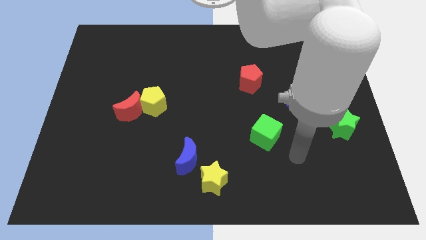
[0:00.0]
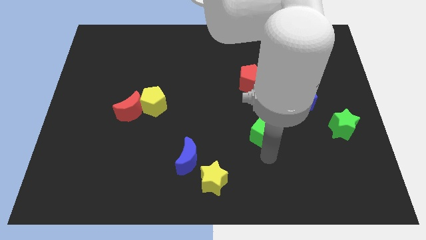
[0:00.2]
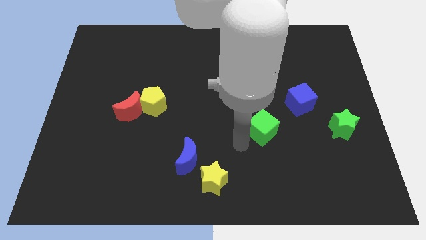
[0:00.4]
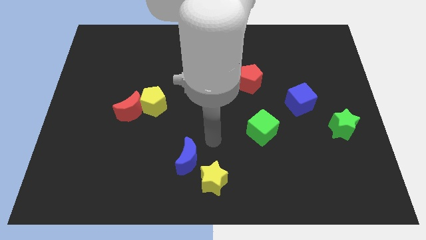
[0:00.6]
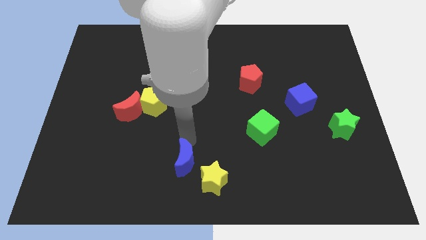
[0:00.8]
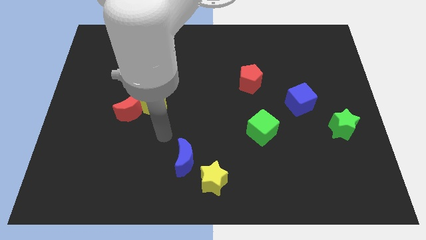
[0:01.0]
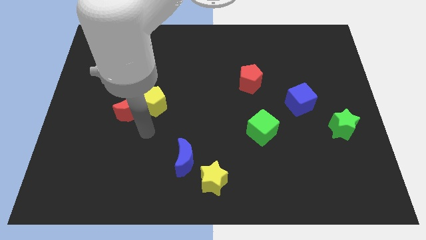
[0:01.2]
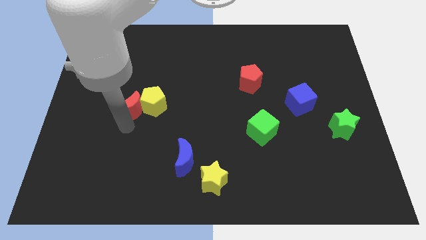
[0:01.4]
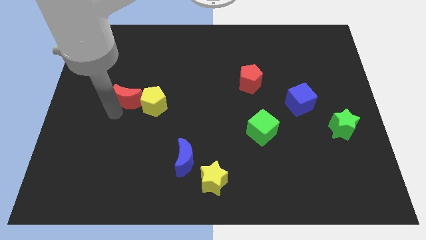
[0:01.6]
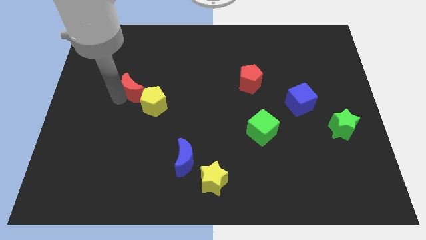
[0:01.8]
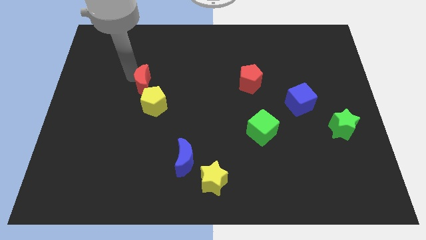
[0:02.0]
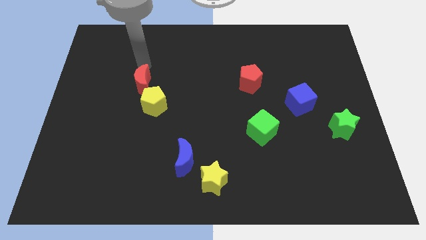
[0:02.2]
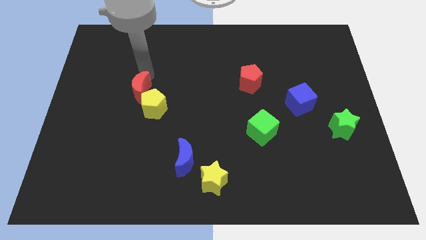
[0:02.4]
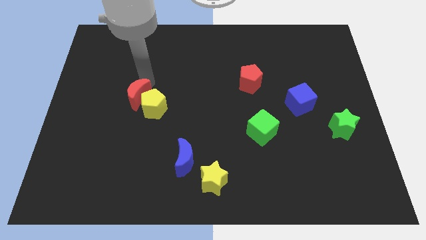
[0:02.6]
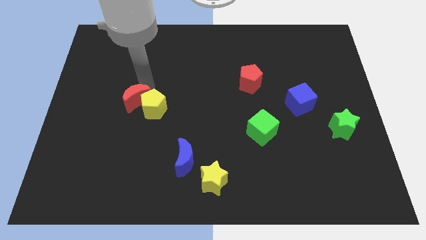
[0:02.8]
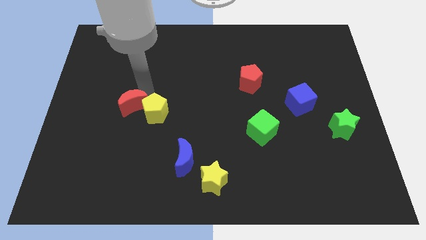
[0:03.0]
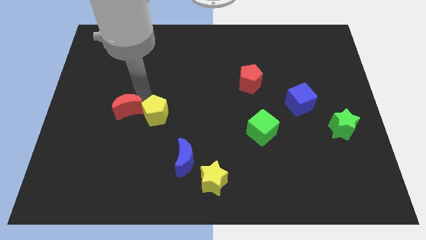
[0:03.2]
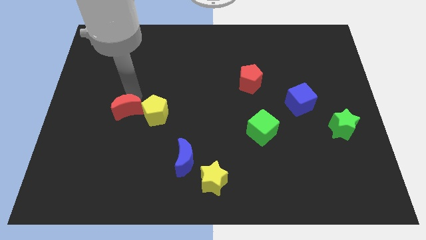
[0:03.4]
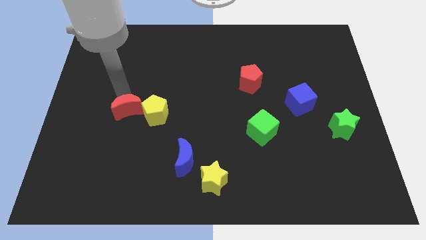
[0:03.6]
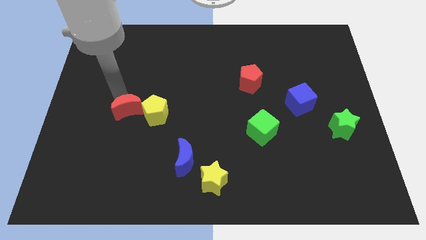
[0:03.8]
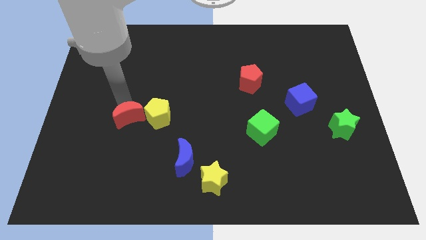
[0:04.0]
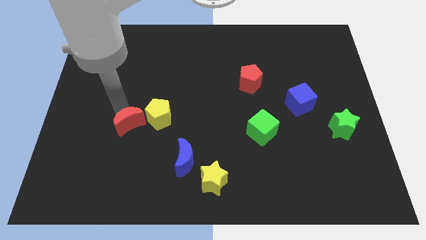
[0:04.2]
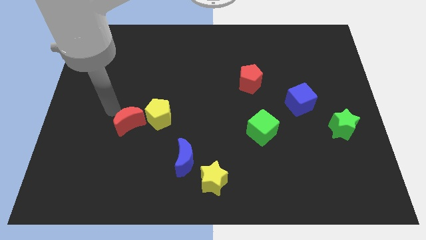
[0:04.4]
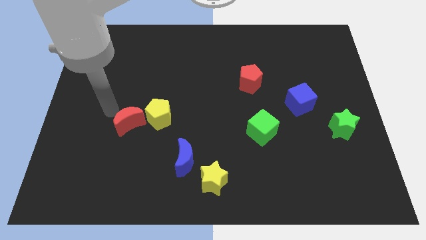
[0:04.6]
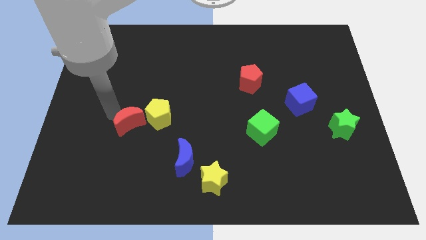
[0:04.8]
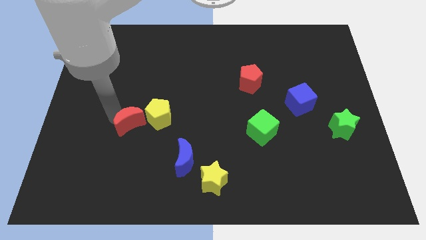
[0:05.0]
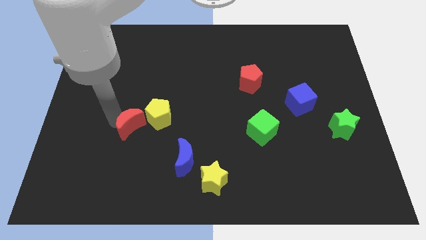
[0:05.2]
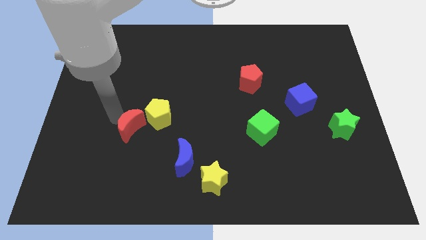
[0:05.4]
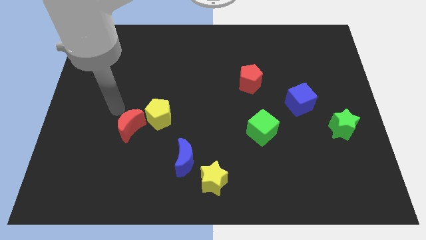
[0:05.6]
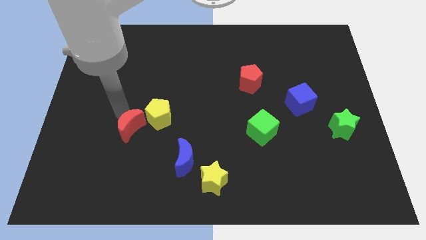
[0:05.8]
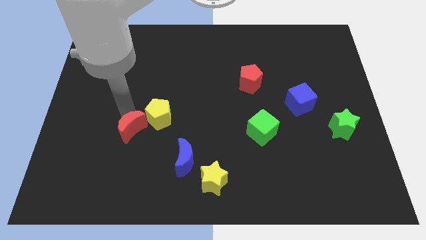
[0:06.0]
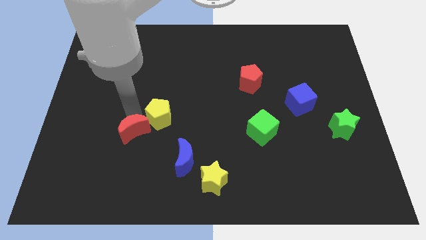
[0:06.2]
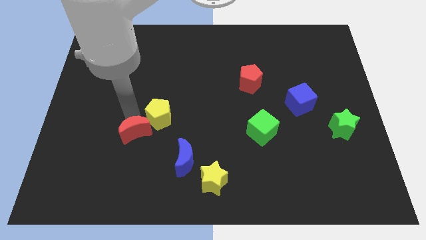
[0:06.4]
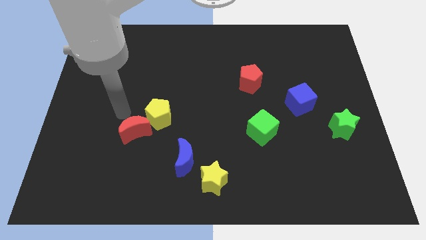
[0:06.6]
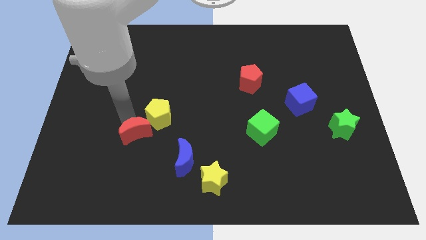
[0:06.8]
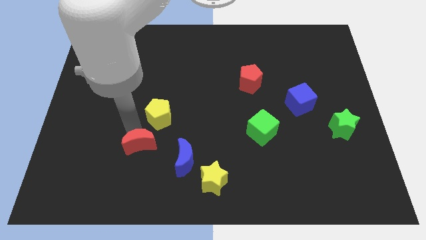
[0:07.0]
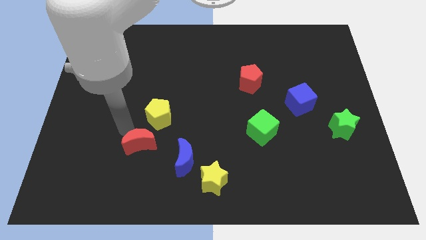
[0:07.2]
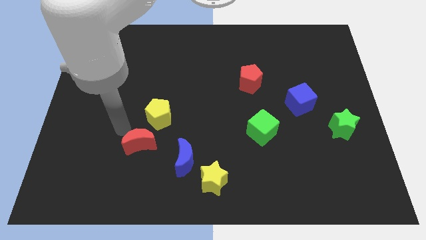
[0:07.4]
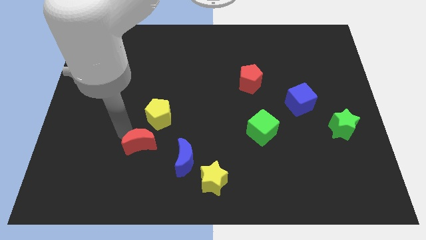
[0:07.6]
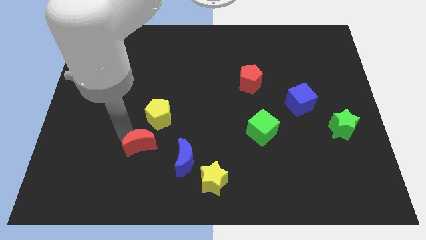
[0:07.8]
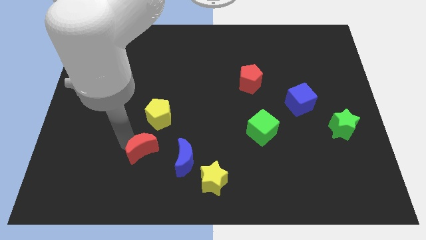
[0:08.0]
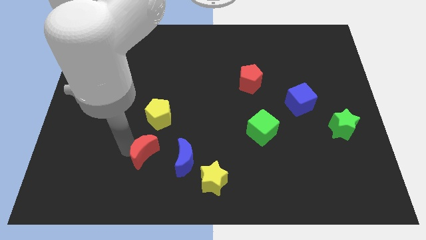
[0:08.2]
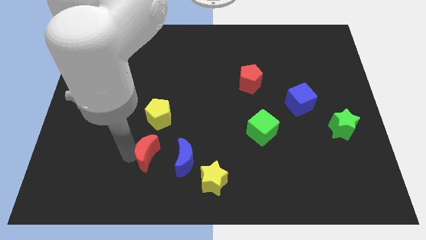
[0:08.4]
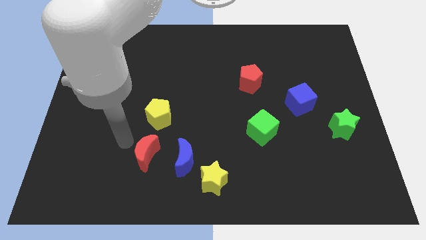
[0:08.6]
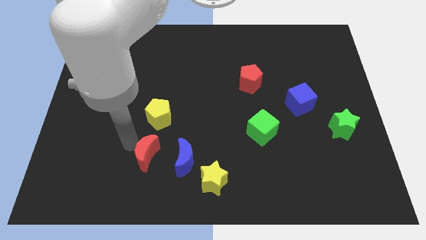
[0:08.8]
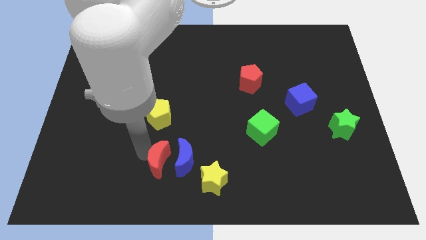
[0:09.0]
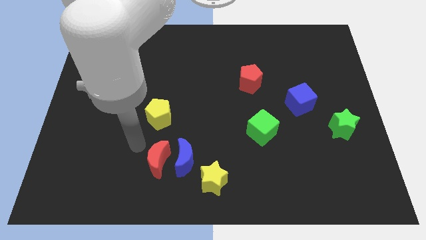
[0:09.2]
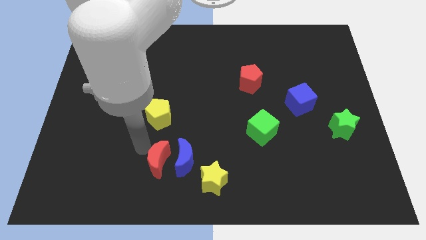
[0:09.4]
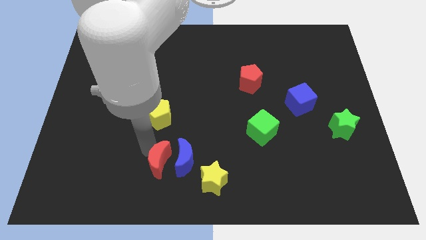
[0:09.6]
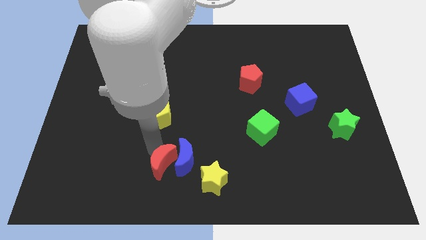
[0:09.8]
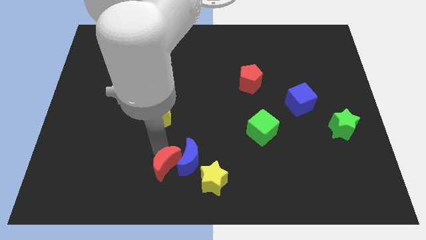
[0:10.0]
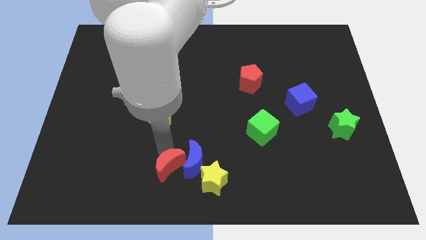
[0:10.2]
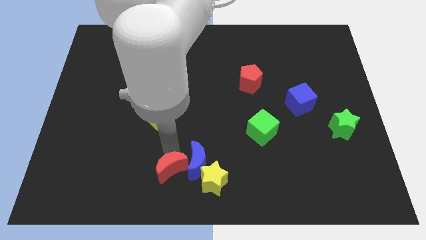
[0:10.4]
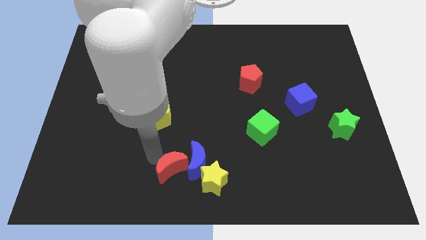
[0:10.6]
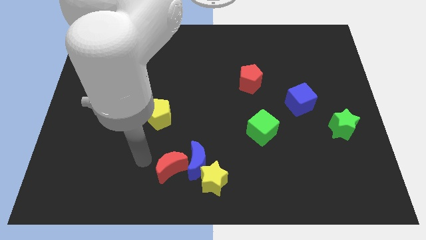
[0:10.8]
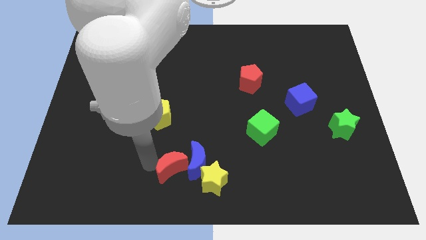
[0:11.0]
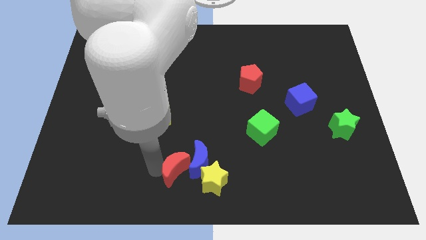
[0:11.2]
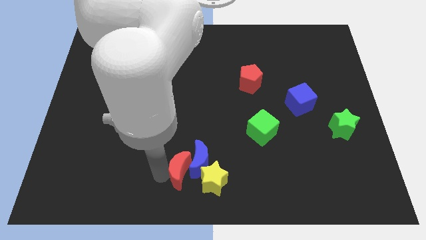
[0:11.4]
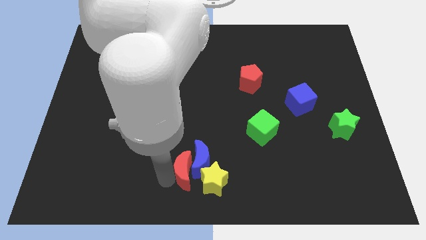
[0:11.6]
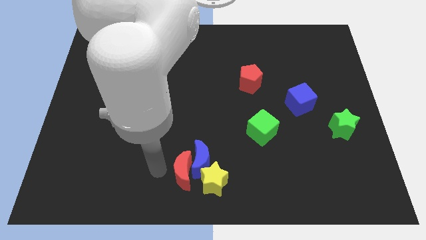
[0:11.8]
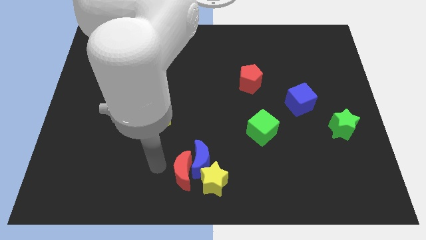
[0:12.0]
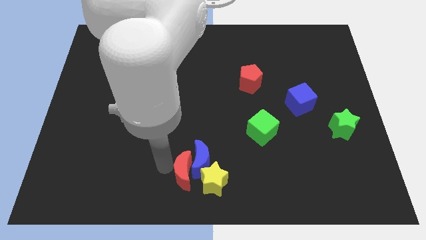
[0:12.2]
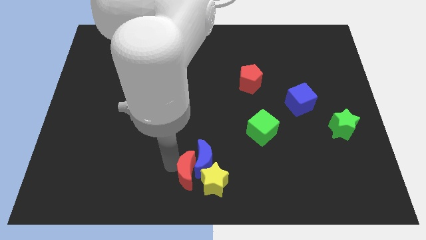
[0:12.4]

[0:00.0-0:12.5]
put the red moon to the yellow star
